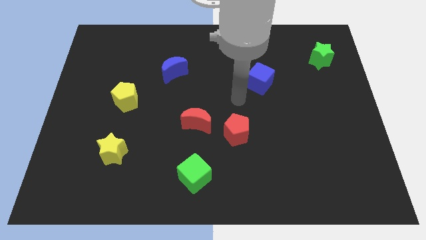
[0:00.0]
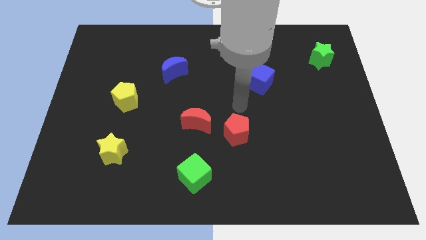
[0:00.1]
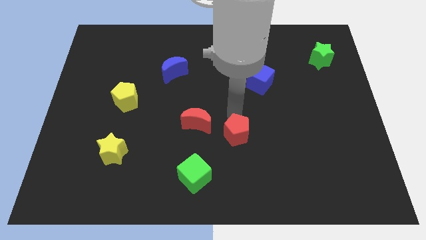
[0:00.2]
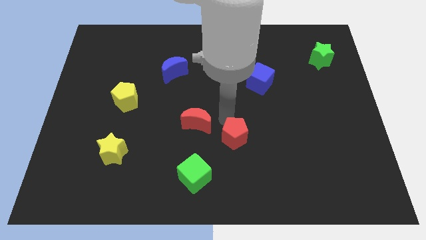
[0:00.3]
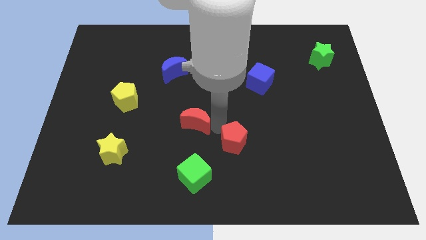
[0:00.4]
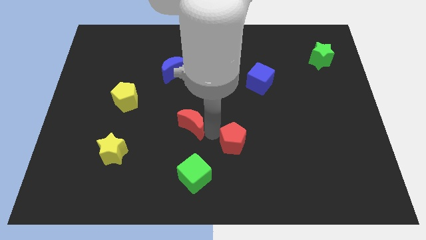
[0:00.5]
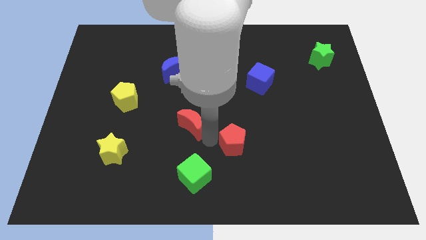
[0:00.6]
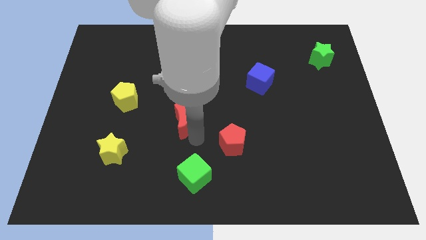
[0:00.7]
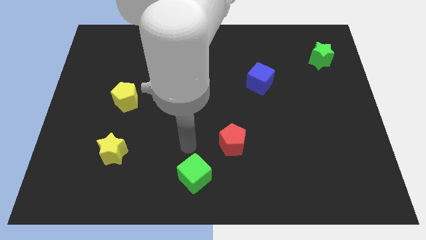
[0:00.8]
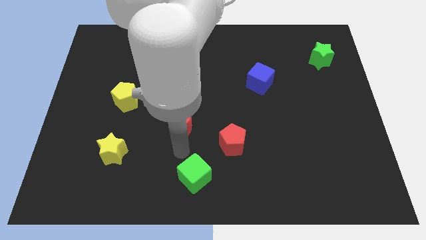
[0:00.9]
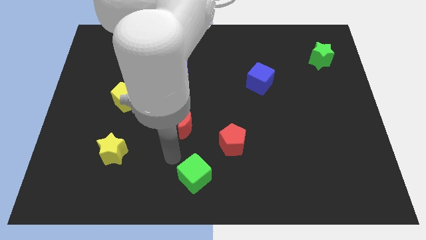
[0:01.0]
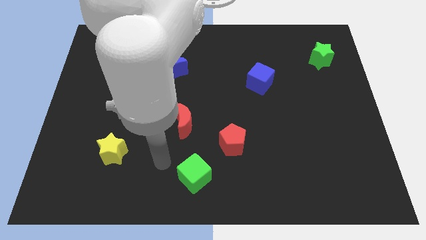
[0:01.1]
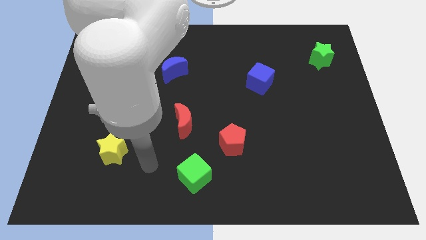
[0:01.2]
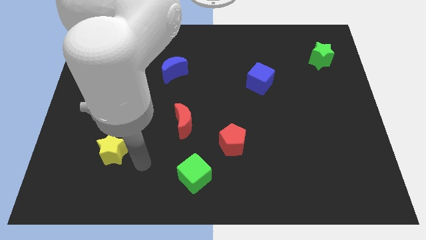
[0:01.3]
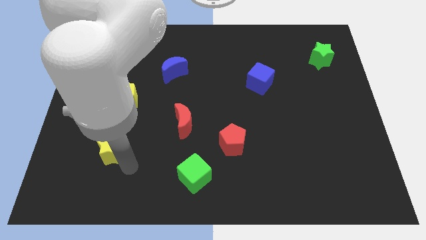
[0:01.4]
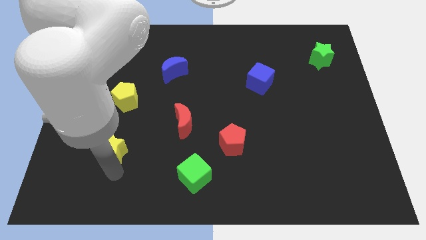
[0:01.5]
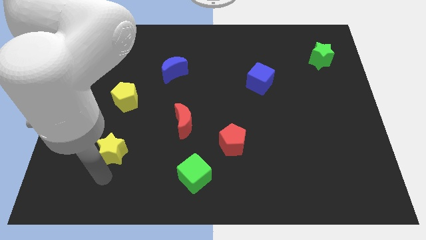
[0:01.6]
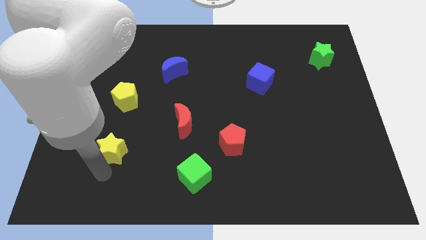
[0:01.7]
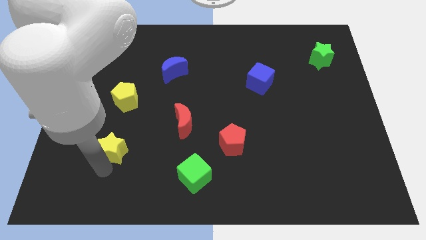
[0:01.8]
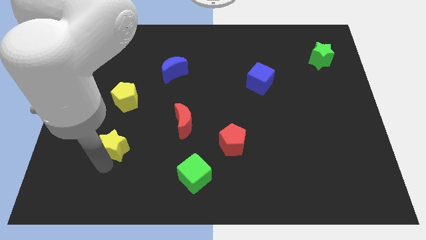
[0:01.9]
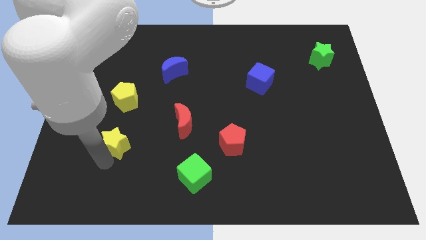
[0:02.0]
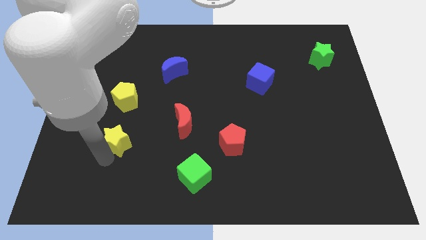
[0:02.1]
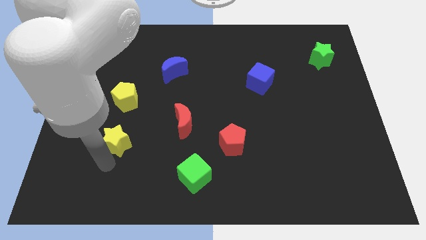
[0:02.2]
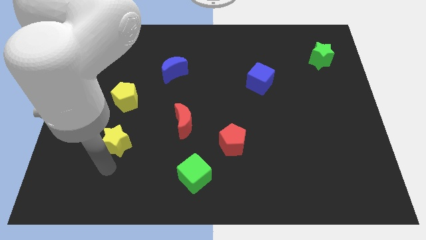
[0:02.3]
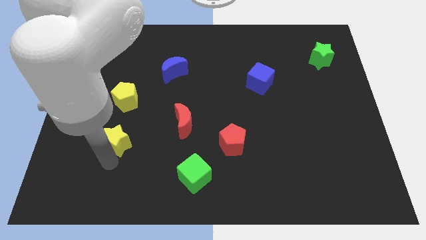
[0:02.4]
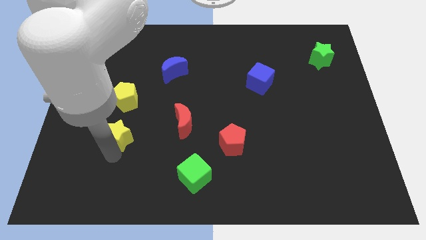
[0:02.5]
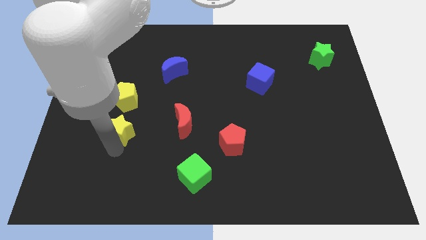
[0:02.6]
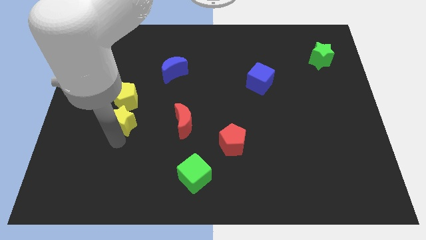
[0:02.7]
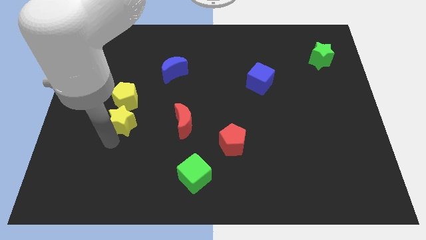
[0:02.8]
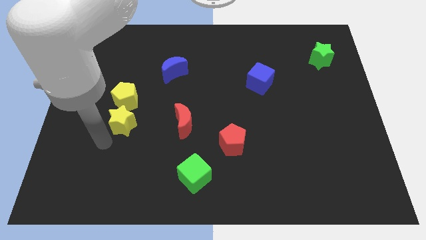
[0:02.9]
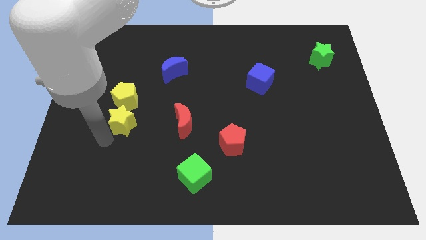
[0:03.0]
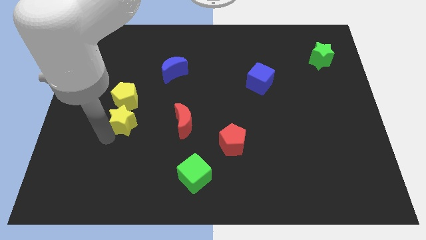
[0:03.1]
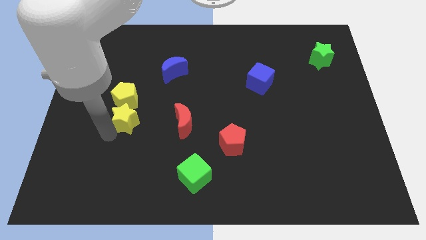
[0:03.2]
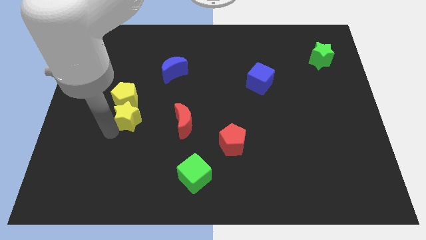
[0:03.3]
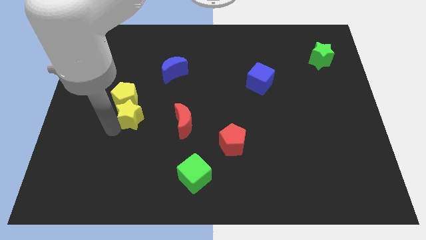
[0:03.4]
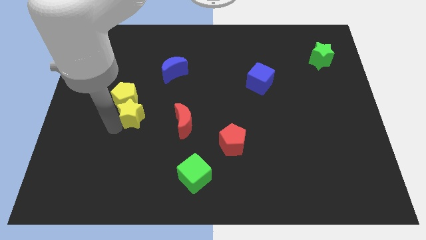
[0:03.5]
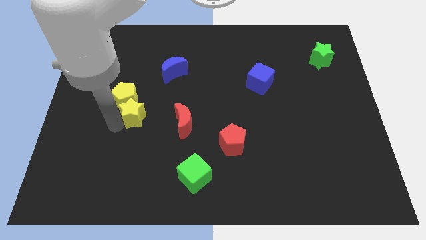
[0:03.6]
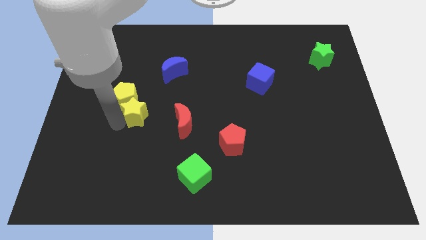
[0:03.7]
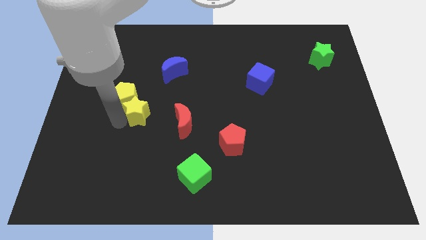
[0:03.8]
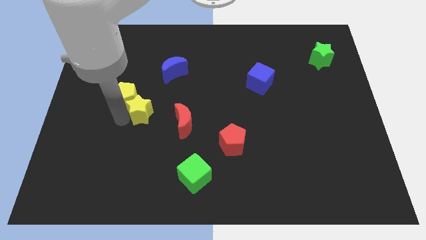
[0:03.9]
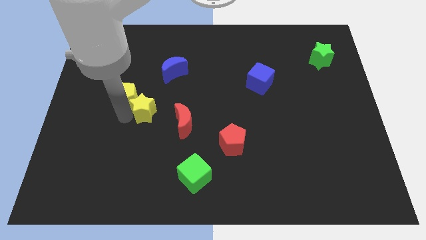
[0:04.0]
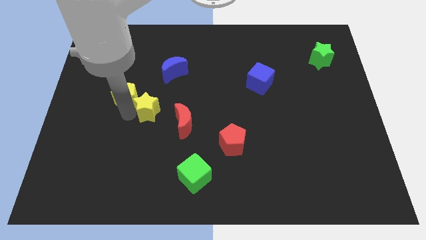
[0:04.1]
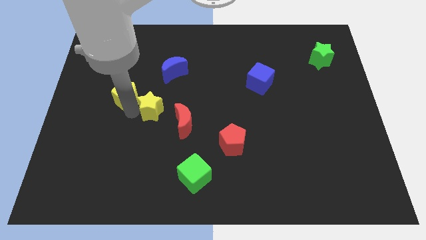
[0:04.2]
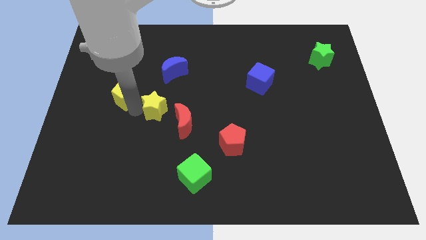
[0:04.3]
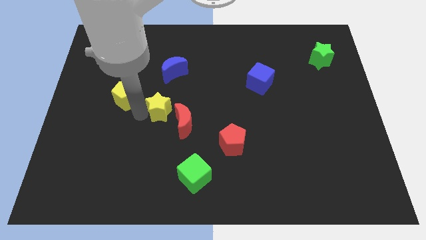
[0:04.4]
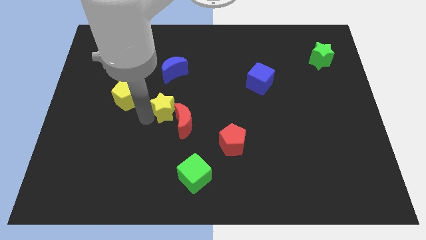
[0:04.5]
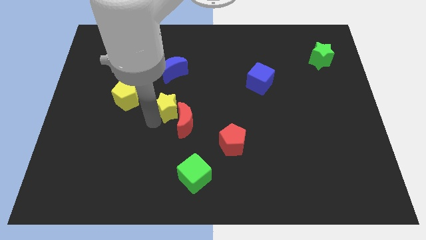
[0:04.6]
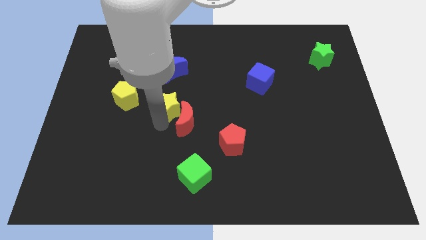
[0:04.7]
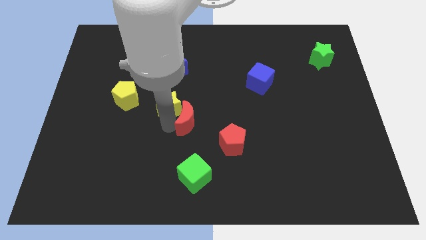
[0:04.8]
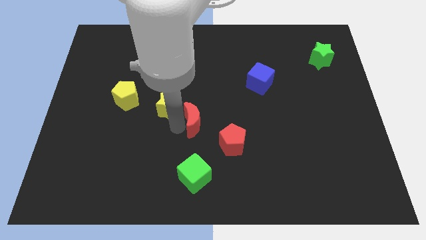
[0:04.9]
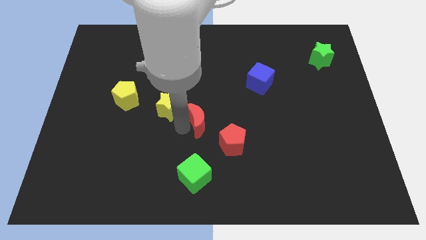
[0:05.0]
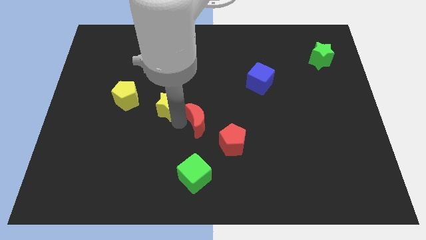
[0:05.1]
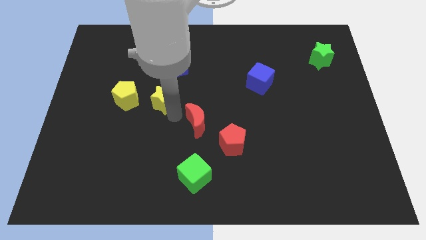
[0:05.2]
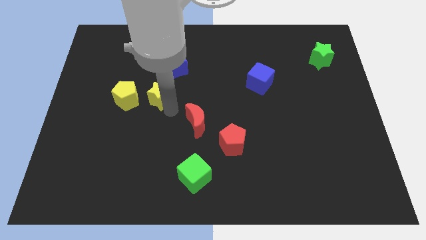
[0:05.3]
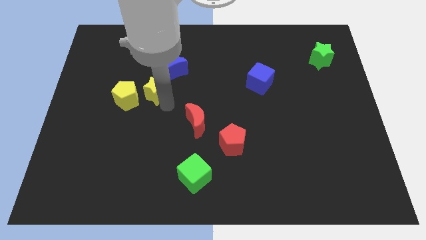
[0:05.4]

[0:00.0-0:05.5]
push the yellow star to the top right of the yellow pentagon

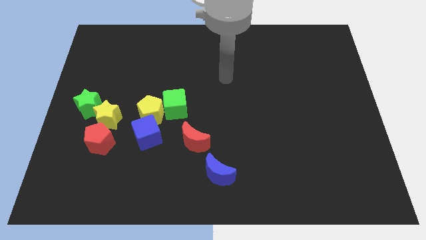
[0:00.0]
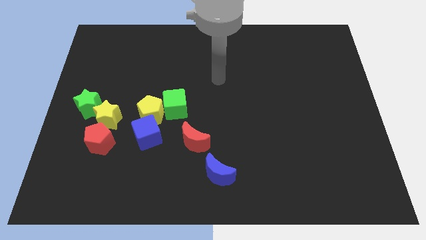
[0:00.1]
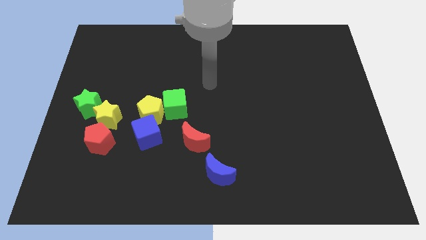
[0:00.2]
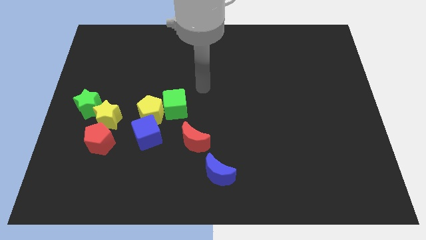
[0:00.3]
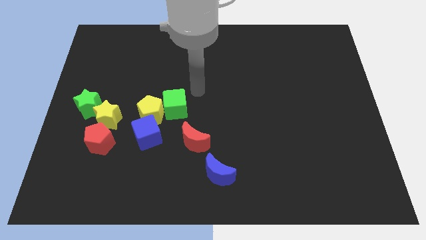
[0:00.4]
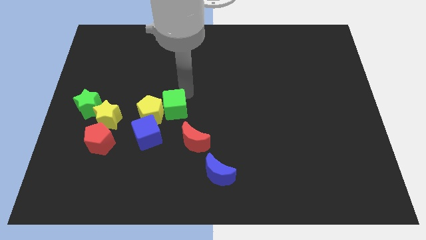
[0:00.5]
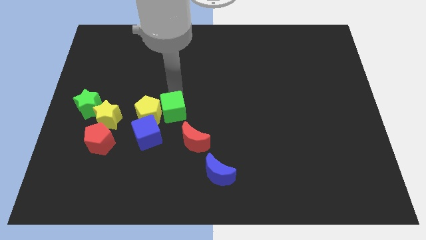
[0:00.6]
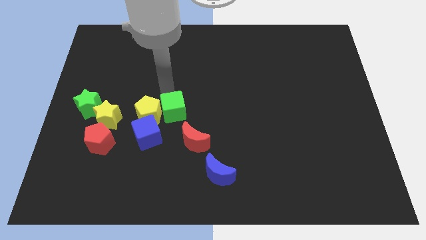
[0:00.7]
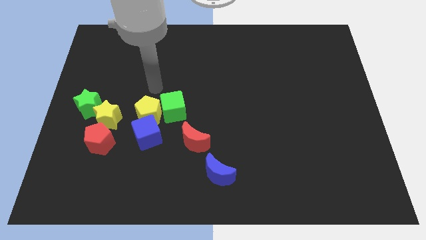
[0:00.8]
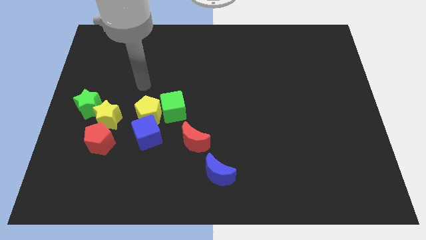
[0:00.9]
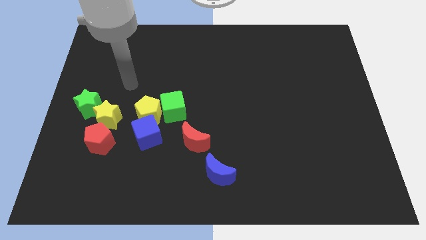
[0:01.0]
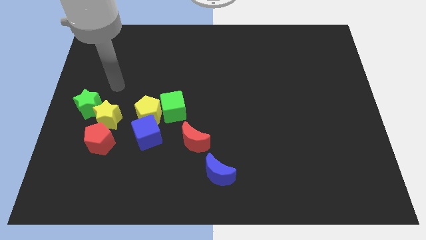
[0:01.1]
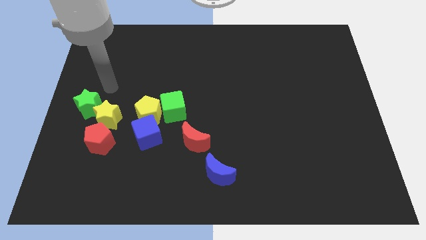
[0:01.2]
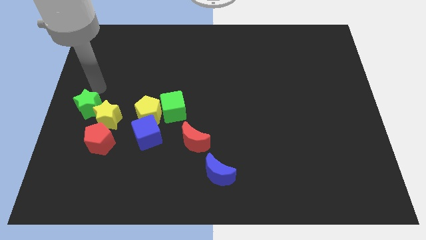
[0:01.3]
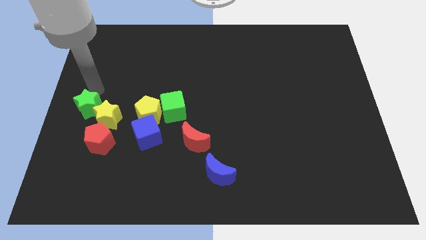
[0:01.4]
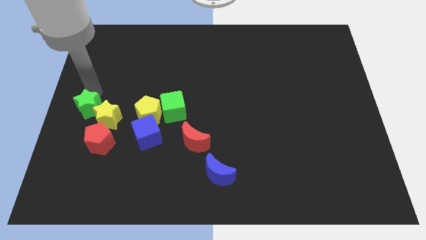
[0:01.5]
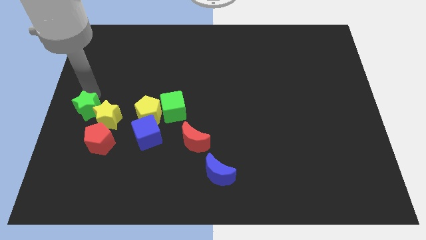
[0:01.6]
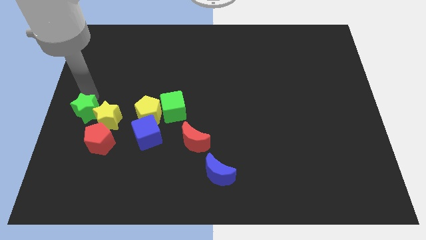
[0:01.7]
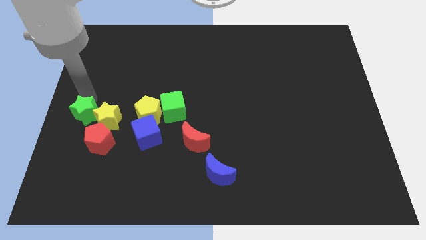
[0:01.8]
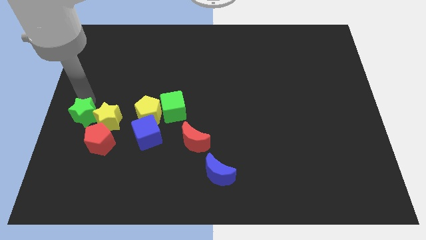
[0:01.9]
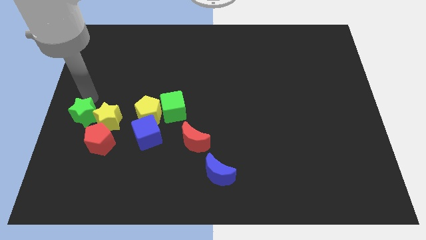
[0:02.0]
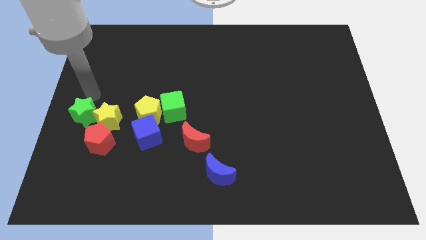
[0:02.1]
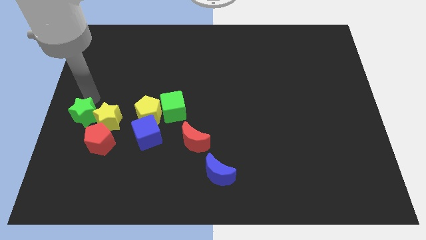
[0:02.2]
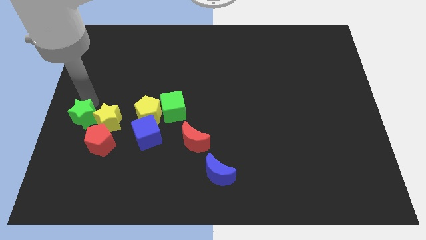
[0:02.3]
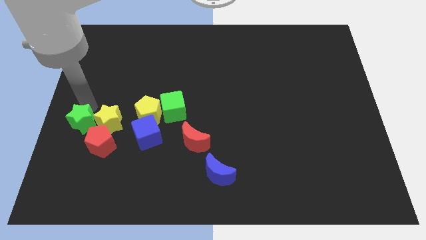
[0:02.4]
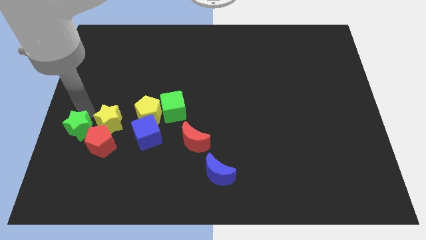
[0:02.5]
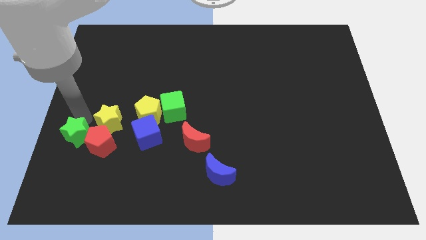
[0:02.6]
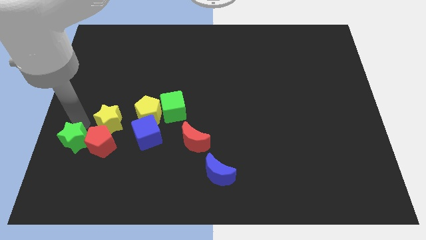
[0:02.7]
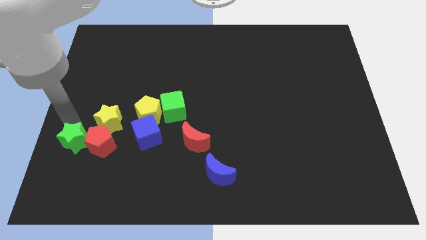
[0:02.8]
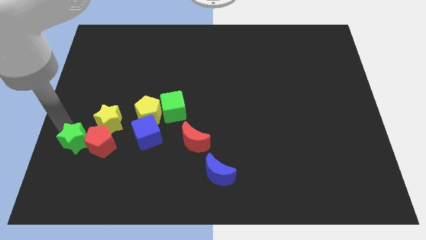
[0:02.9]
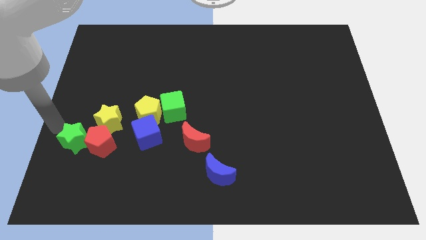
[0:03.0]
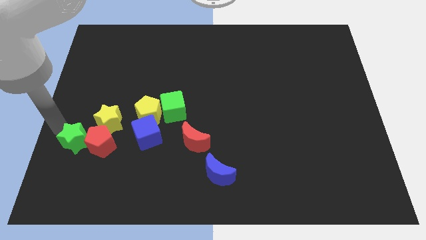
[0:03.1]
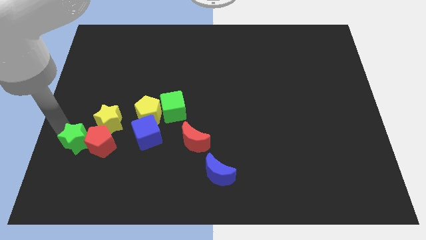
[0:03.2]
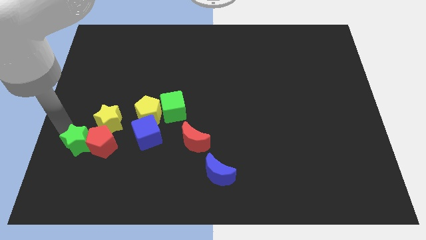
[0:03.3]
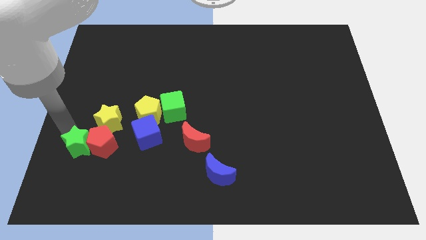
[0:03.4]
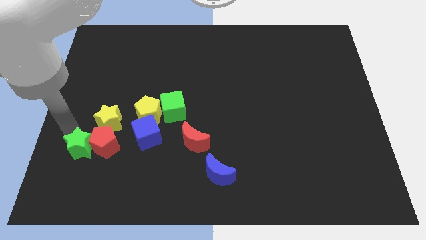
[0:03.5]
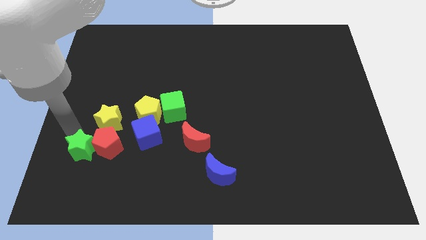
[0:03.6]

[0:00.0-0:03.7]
slide the green star to the bottom of the yellow star
